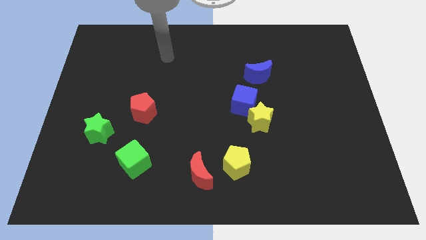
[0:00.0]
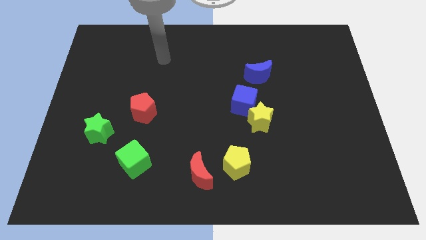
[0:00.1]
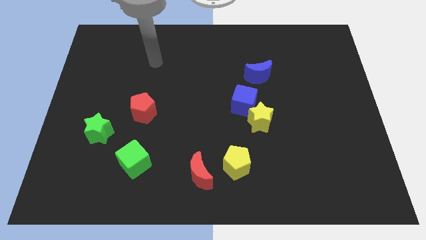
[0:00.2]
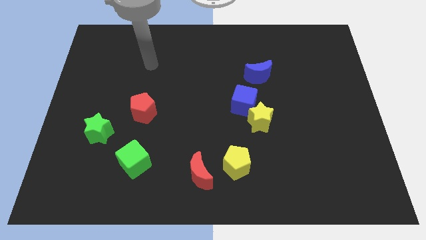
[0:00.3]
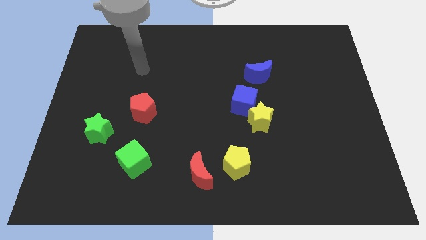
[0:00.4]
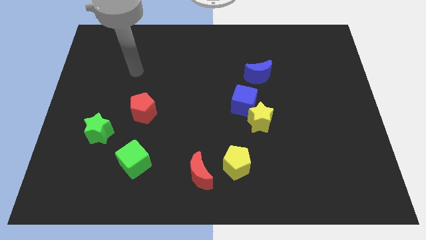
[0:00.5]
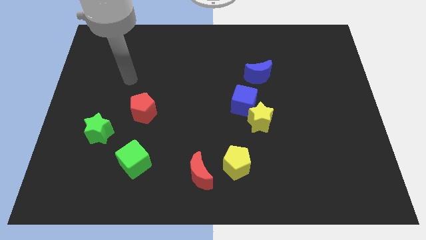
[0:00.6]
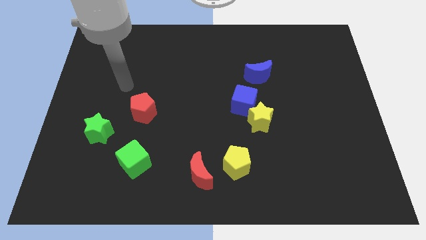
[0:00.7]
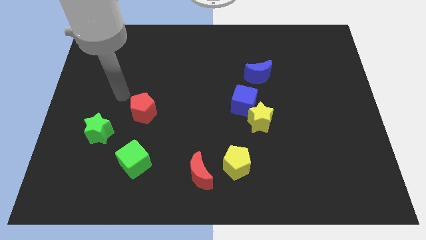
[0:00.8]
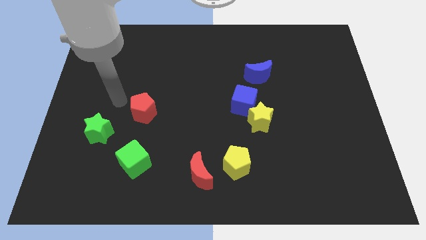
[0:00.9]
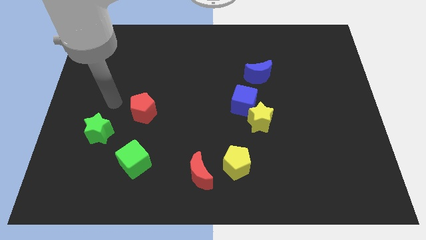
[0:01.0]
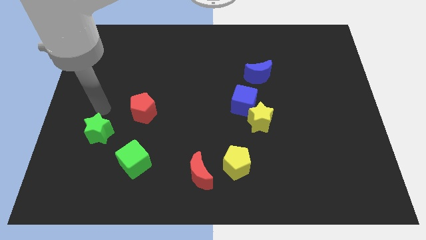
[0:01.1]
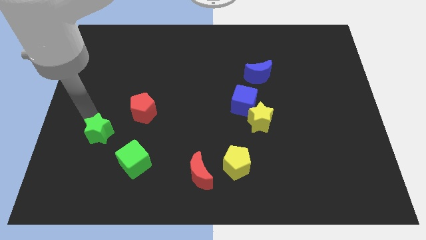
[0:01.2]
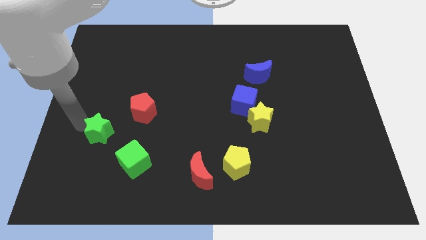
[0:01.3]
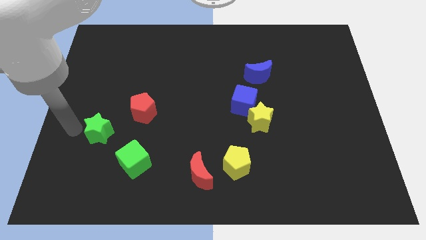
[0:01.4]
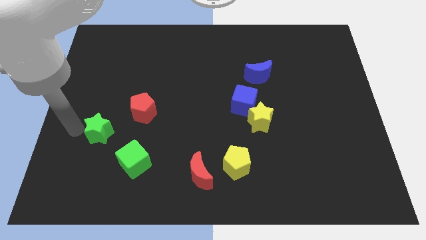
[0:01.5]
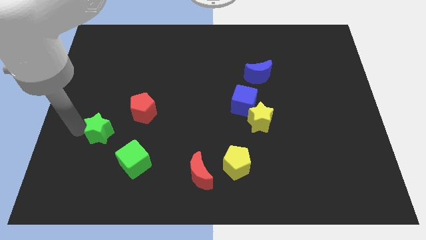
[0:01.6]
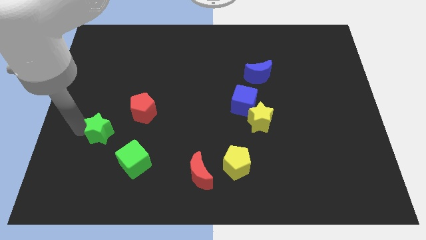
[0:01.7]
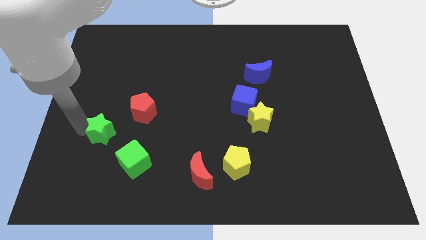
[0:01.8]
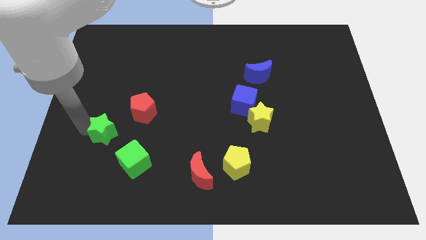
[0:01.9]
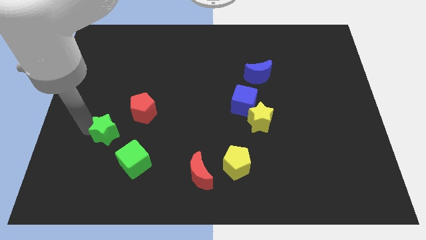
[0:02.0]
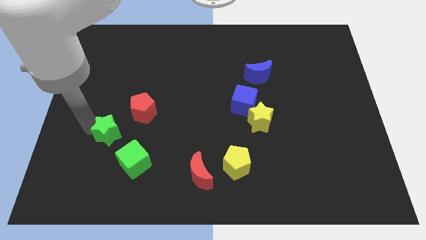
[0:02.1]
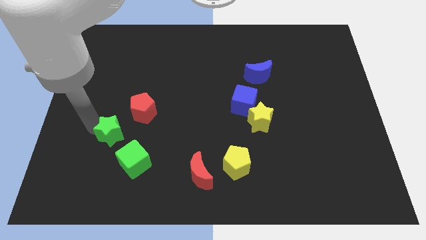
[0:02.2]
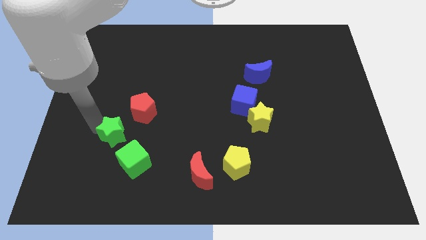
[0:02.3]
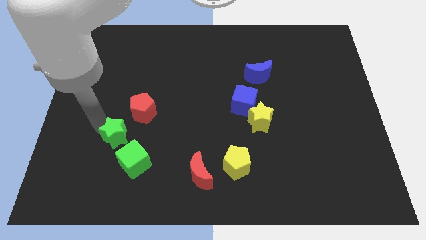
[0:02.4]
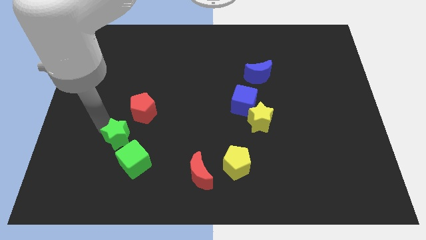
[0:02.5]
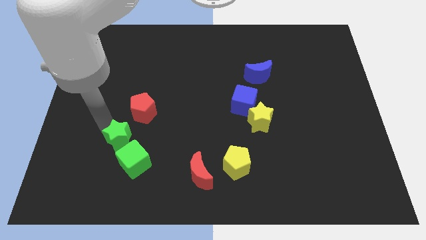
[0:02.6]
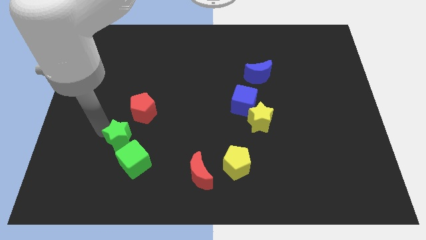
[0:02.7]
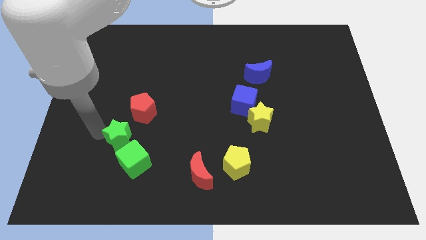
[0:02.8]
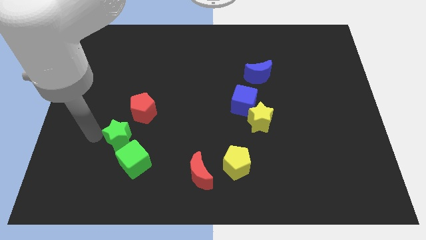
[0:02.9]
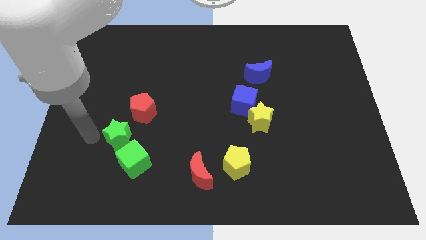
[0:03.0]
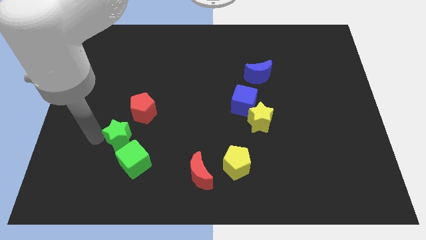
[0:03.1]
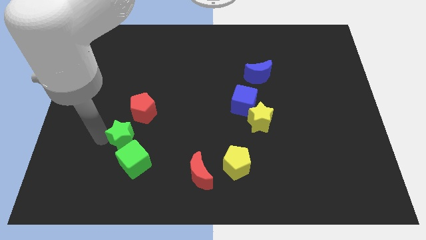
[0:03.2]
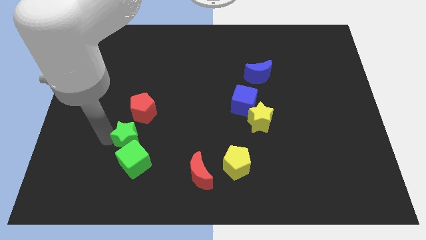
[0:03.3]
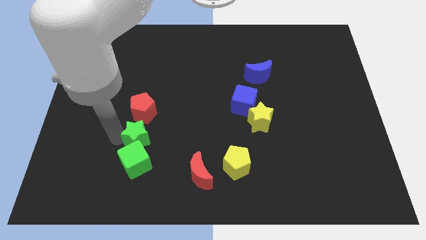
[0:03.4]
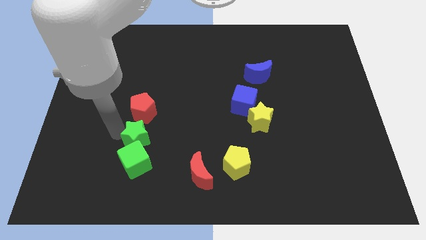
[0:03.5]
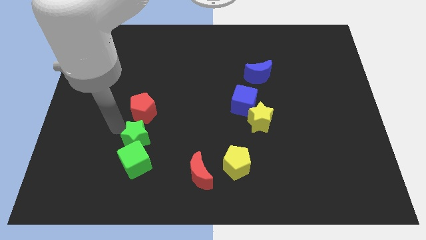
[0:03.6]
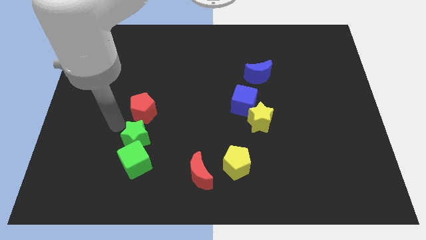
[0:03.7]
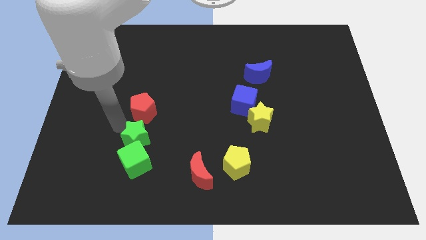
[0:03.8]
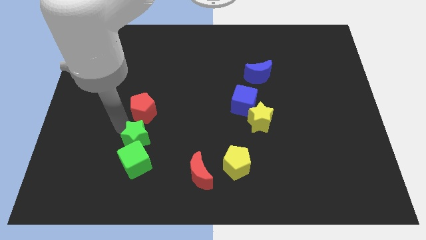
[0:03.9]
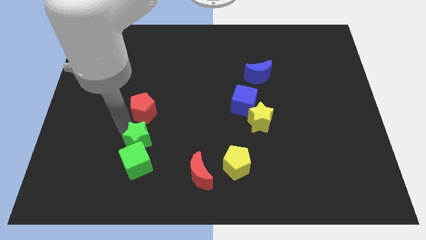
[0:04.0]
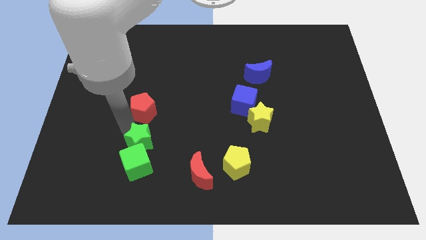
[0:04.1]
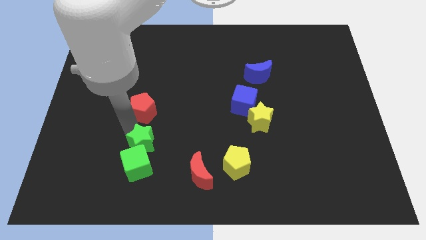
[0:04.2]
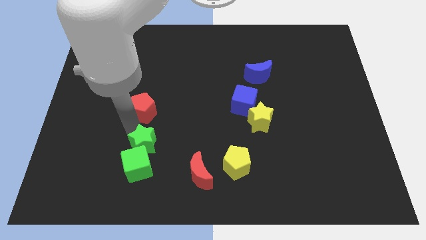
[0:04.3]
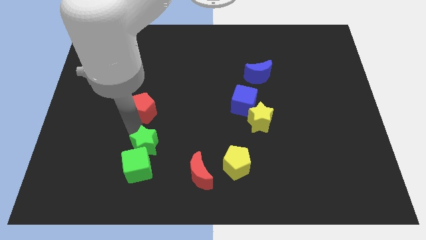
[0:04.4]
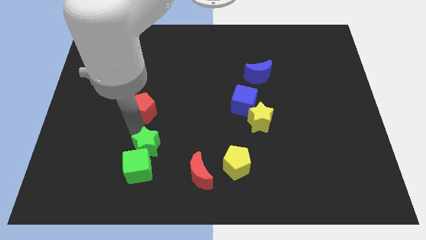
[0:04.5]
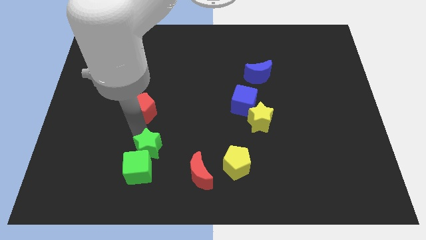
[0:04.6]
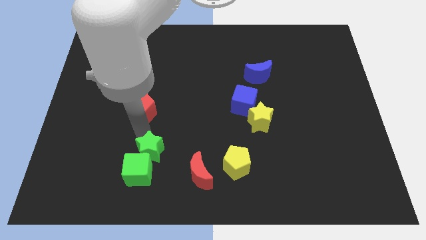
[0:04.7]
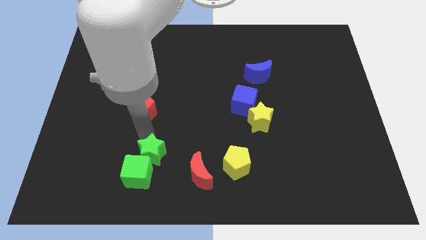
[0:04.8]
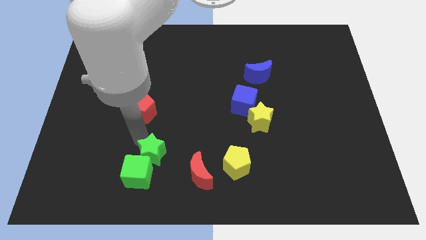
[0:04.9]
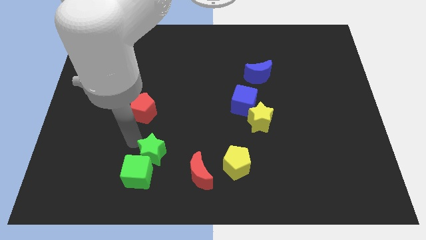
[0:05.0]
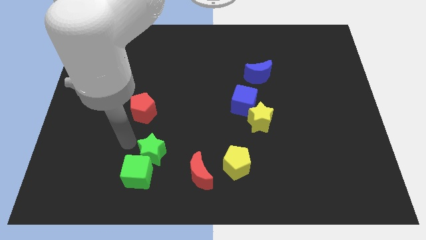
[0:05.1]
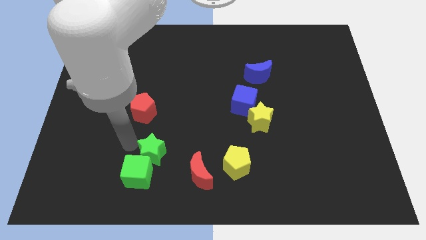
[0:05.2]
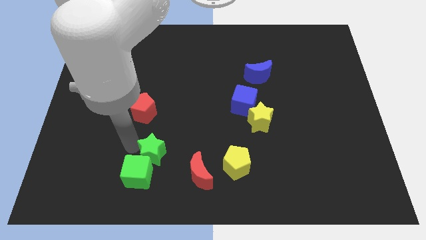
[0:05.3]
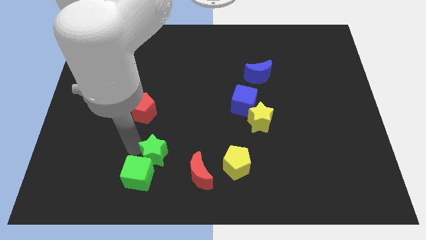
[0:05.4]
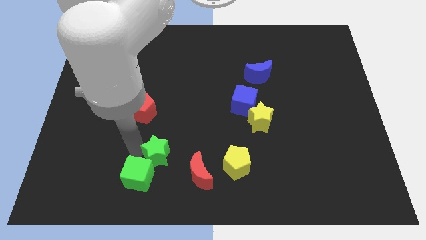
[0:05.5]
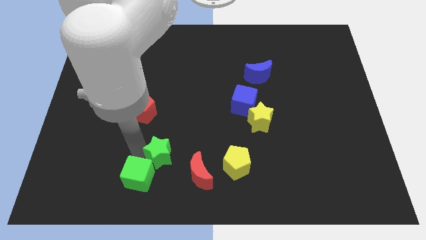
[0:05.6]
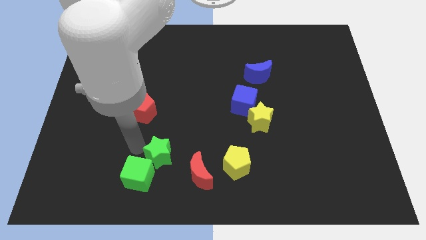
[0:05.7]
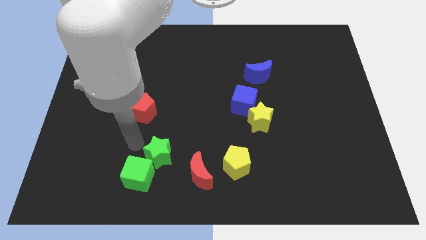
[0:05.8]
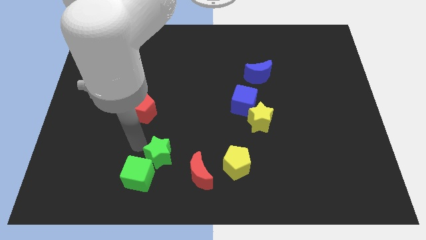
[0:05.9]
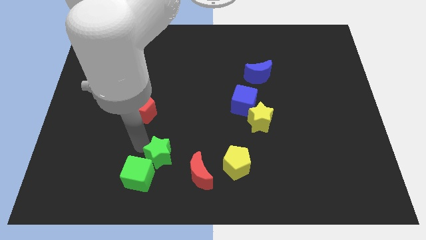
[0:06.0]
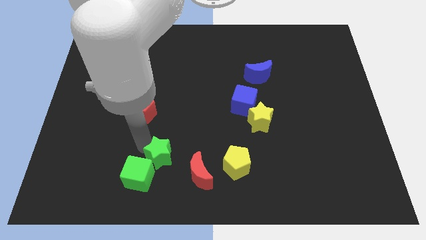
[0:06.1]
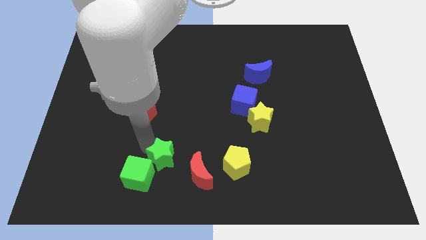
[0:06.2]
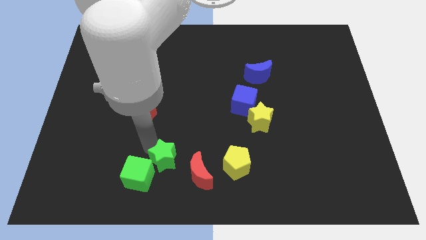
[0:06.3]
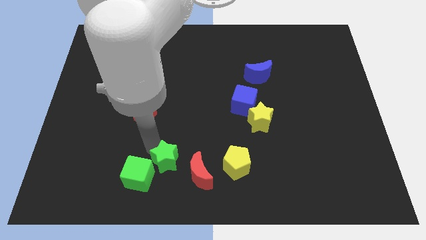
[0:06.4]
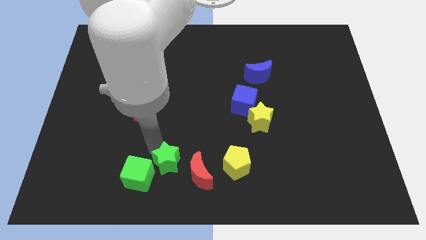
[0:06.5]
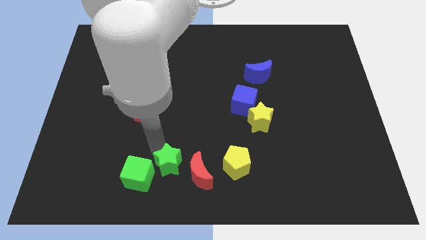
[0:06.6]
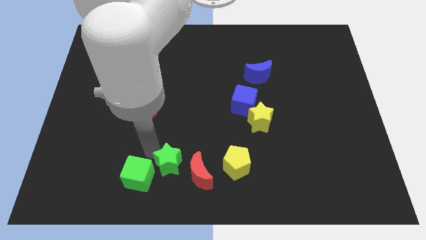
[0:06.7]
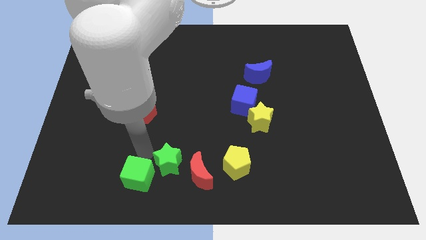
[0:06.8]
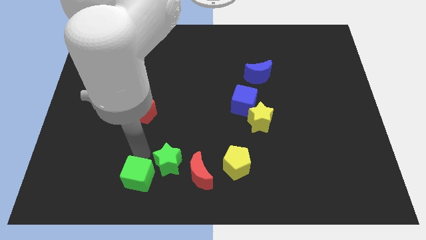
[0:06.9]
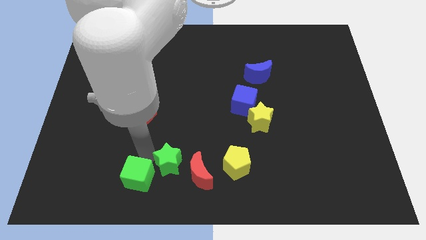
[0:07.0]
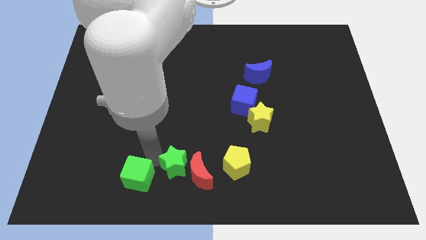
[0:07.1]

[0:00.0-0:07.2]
move the green star close to the red moon
